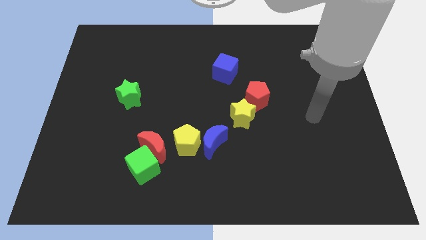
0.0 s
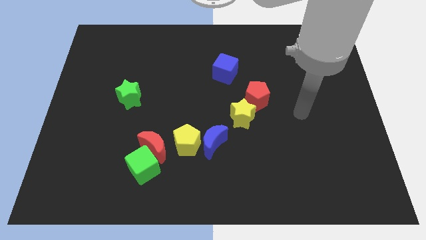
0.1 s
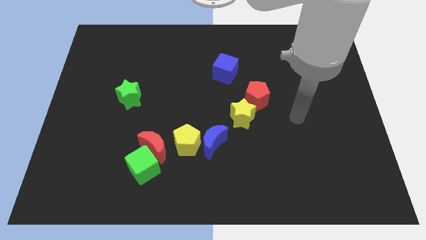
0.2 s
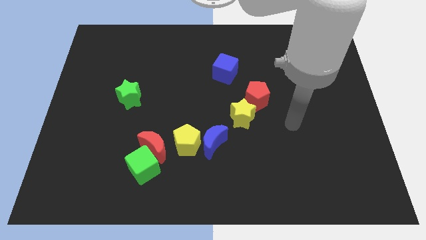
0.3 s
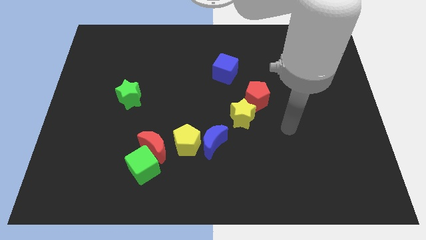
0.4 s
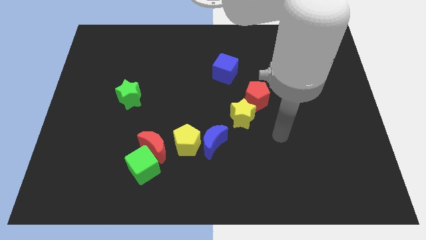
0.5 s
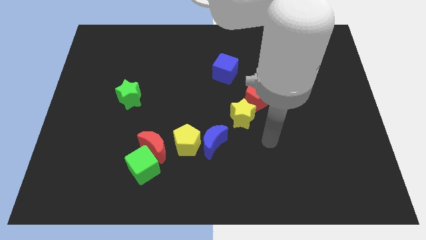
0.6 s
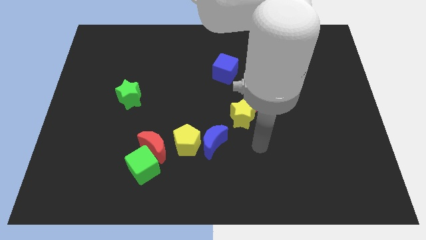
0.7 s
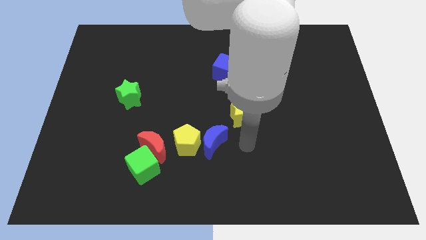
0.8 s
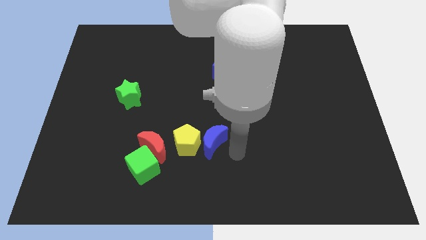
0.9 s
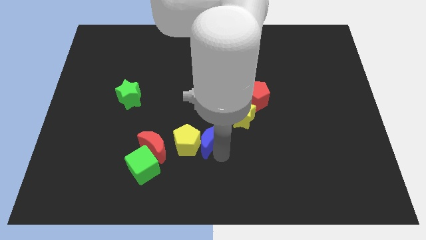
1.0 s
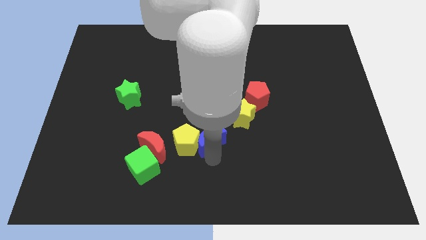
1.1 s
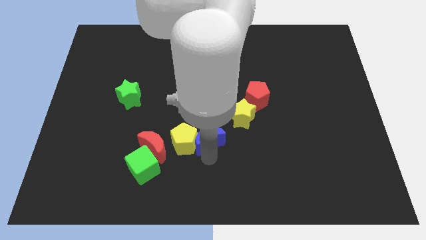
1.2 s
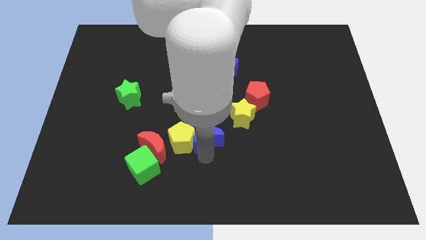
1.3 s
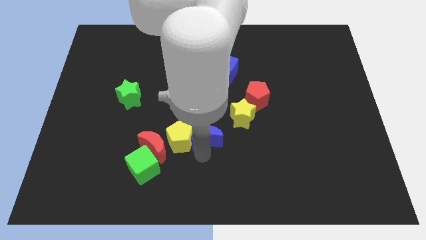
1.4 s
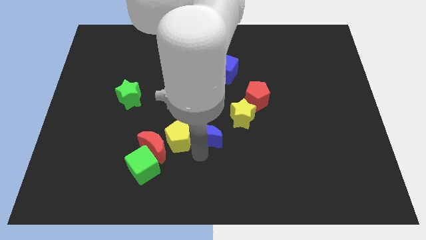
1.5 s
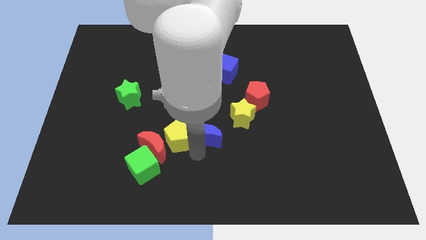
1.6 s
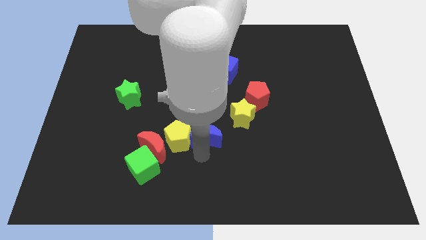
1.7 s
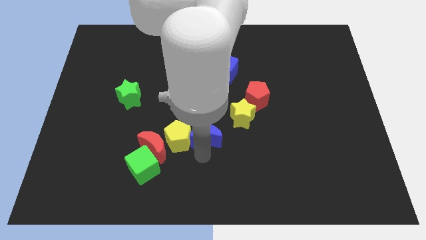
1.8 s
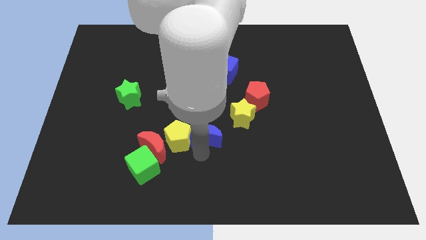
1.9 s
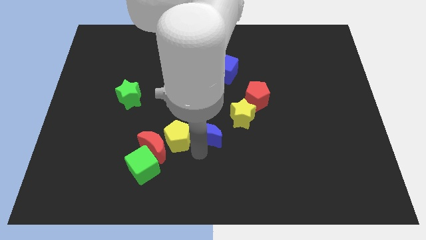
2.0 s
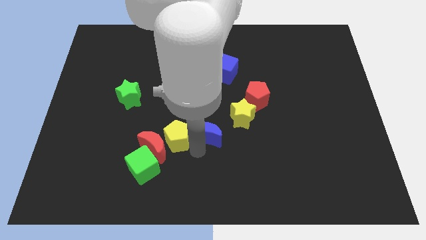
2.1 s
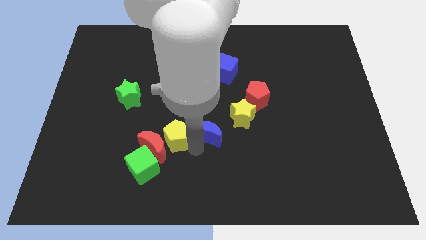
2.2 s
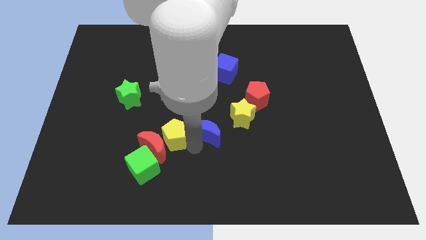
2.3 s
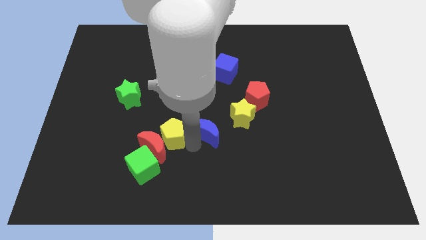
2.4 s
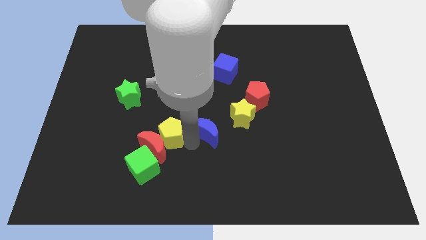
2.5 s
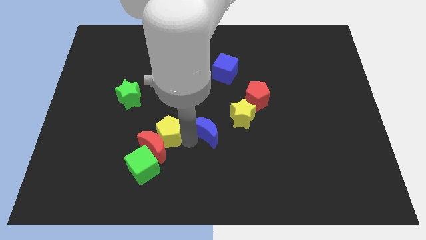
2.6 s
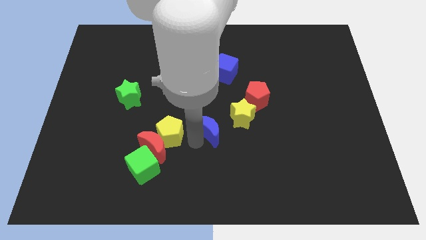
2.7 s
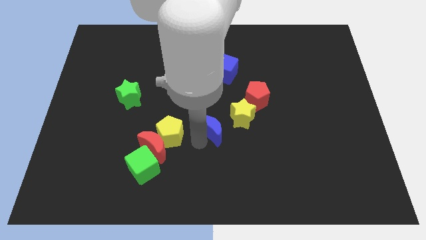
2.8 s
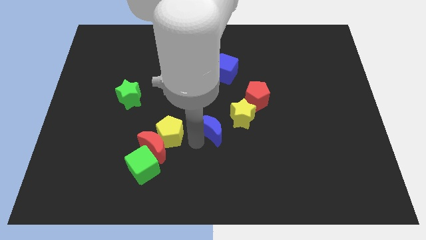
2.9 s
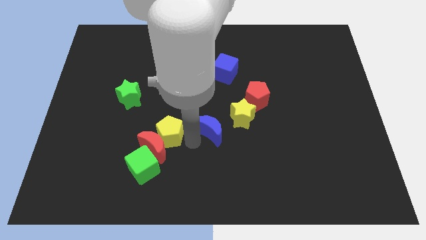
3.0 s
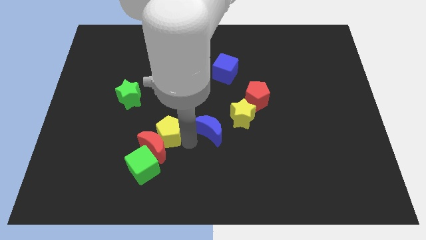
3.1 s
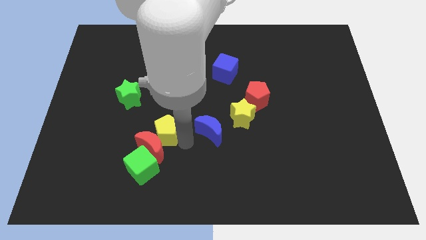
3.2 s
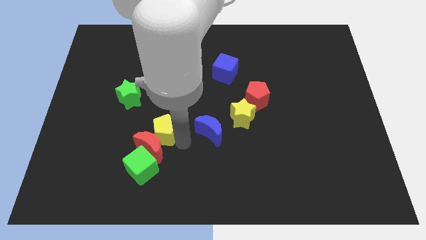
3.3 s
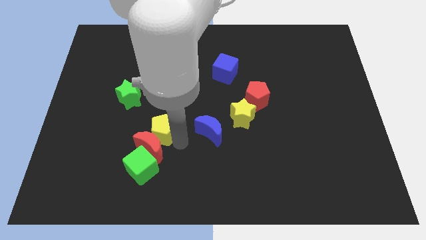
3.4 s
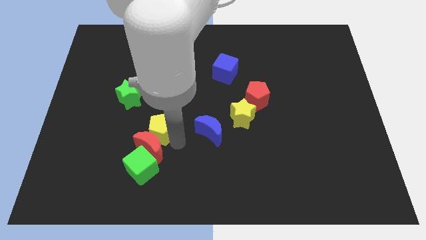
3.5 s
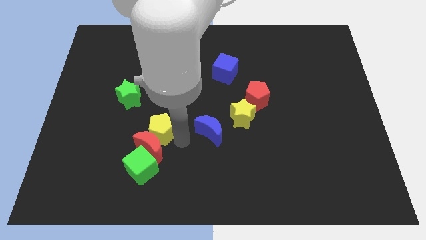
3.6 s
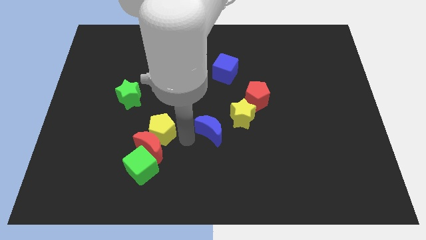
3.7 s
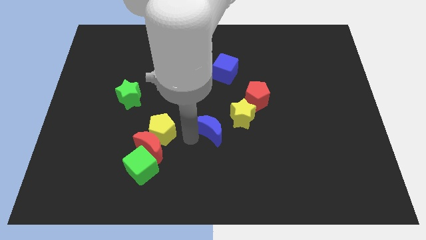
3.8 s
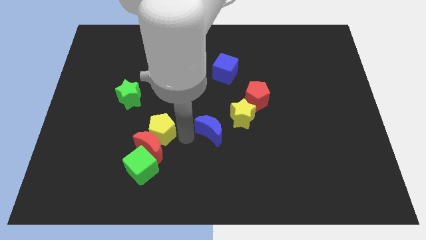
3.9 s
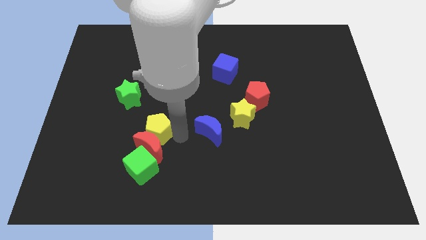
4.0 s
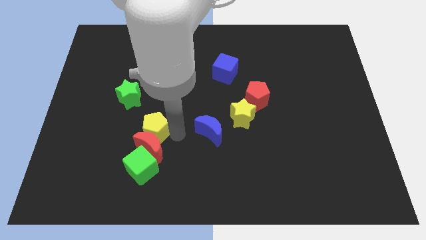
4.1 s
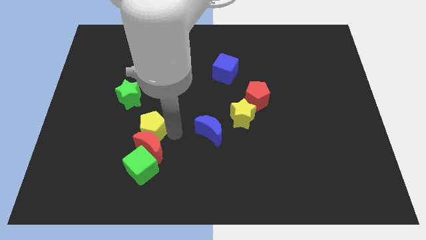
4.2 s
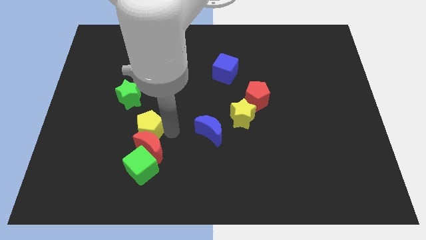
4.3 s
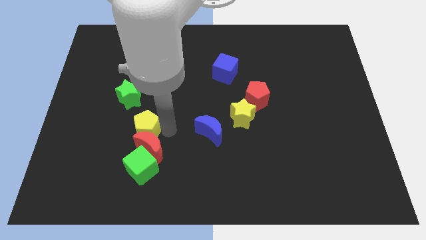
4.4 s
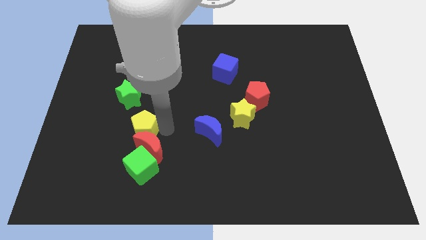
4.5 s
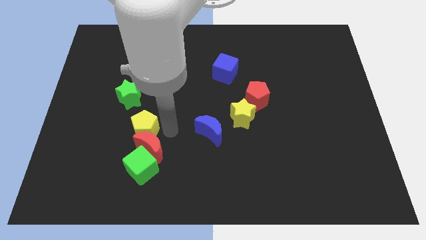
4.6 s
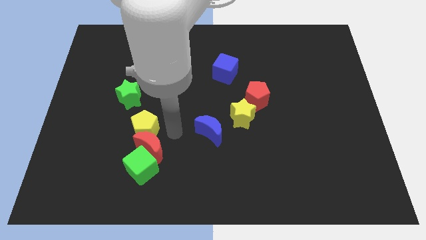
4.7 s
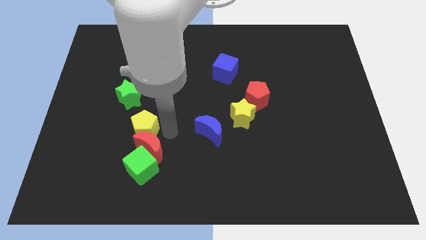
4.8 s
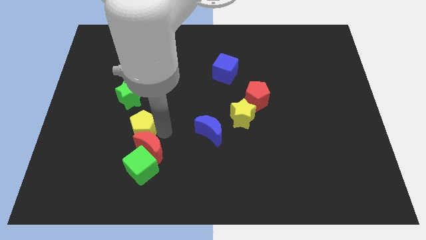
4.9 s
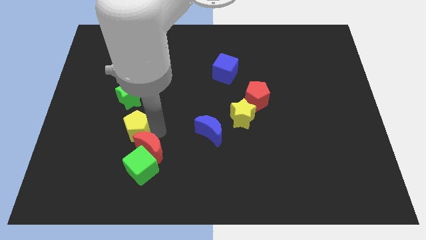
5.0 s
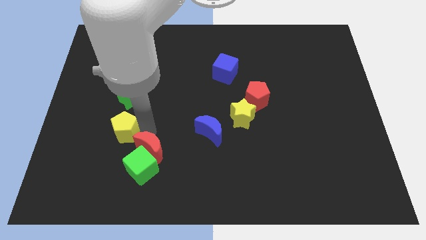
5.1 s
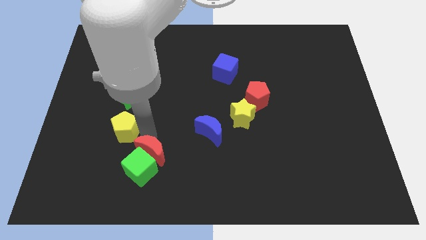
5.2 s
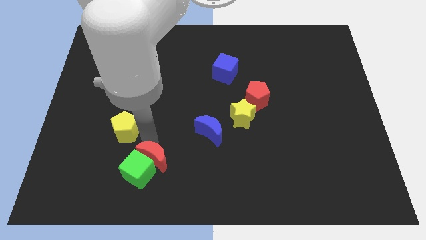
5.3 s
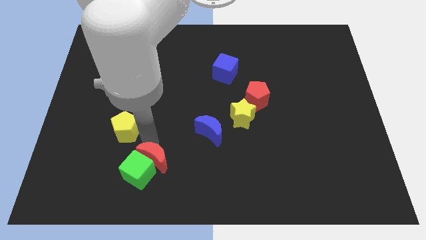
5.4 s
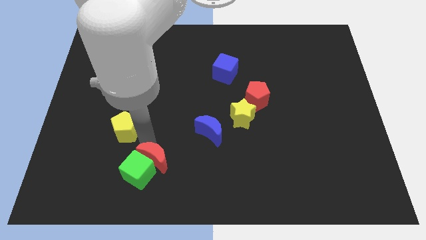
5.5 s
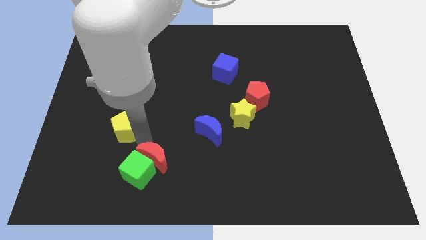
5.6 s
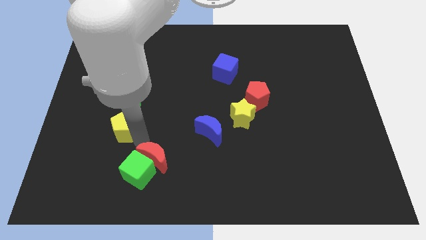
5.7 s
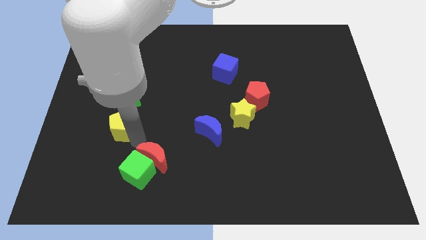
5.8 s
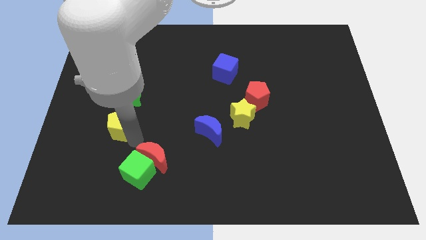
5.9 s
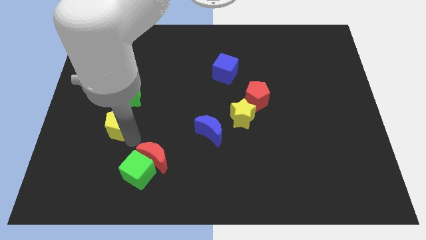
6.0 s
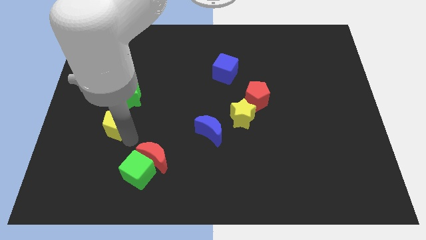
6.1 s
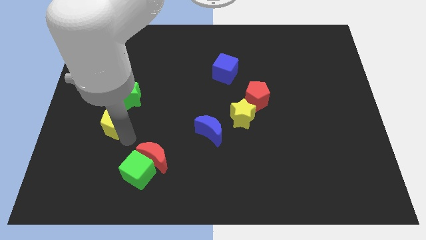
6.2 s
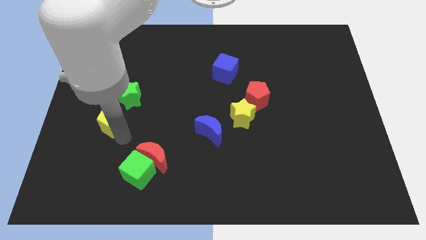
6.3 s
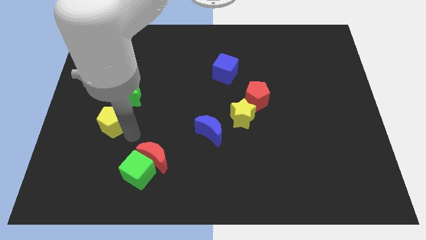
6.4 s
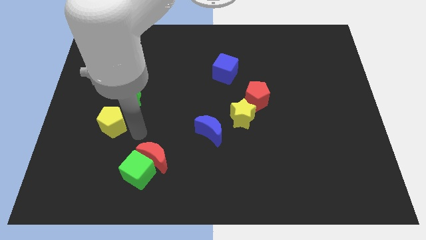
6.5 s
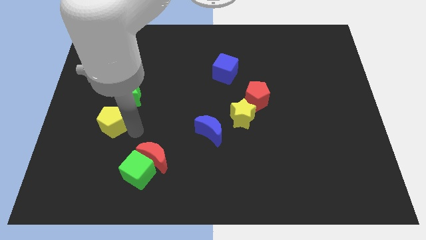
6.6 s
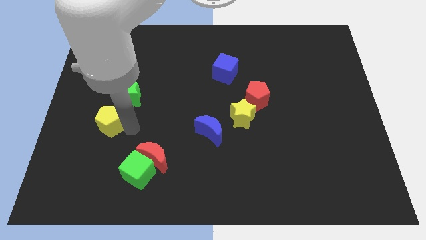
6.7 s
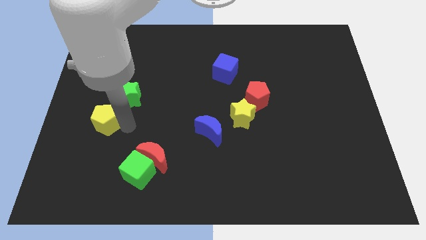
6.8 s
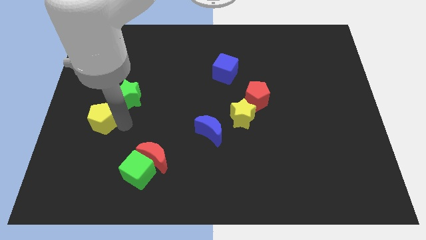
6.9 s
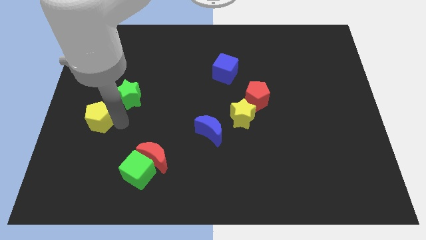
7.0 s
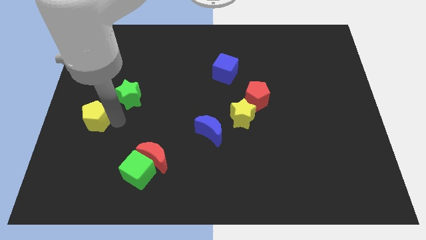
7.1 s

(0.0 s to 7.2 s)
put the yellow pentagon to the center left

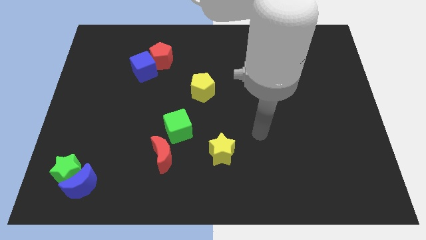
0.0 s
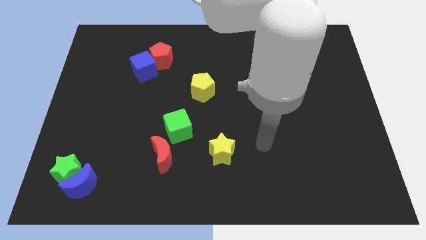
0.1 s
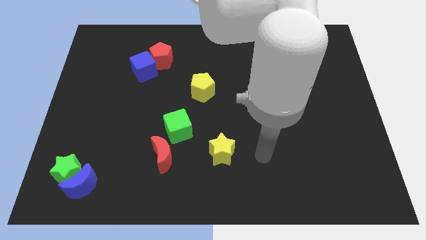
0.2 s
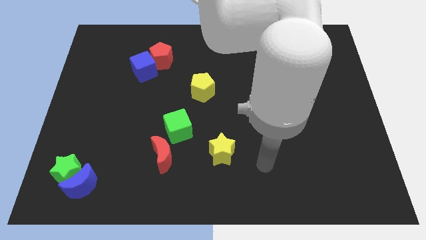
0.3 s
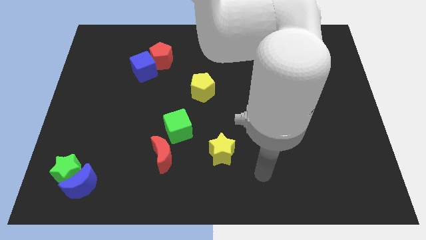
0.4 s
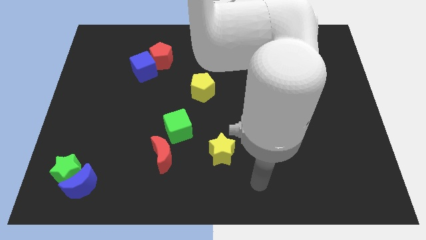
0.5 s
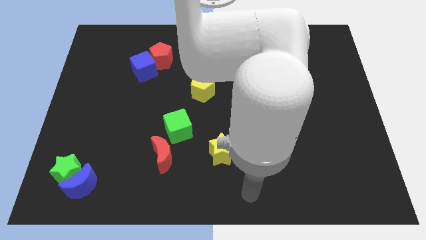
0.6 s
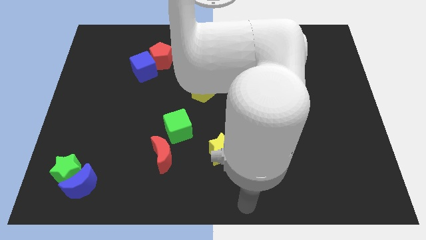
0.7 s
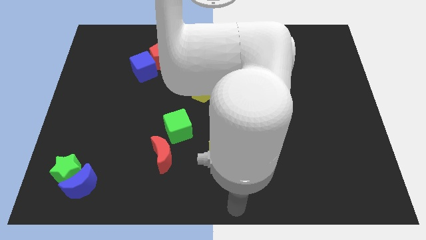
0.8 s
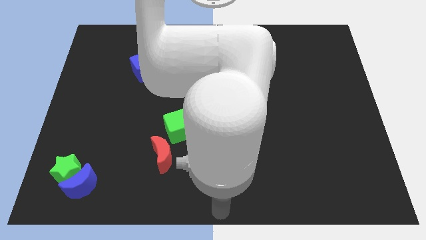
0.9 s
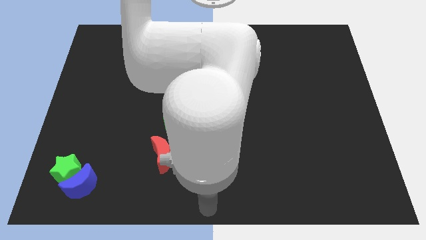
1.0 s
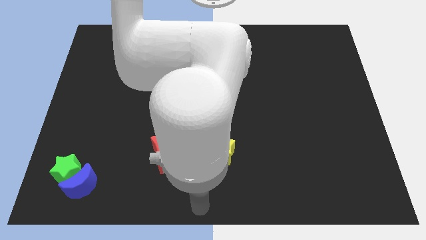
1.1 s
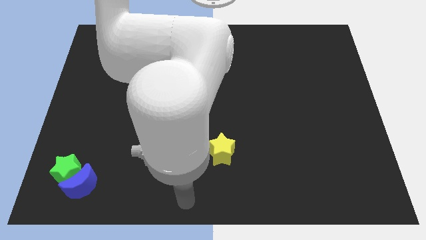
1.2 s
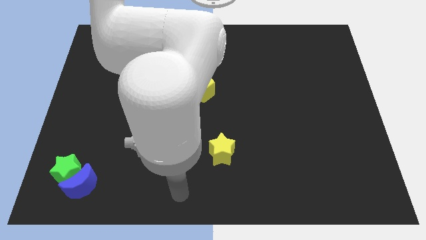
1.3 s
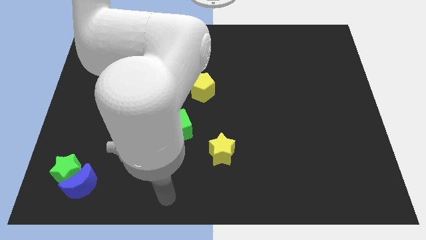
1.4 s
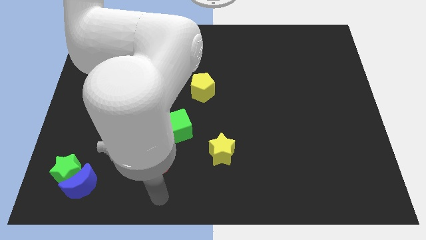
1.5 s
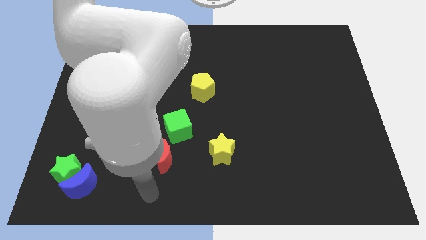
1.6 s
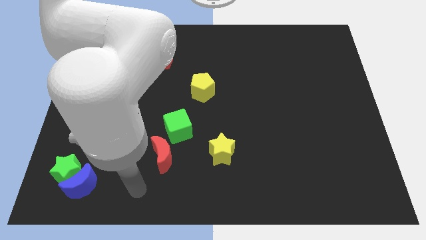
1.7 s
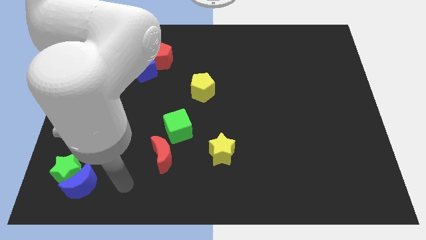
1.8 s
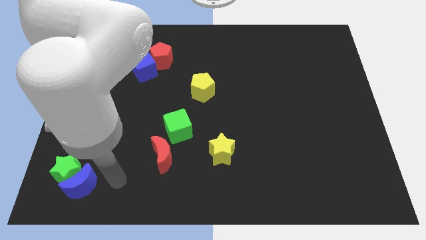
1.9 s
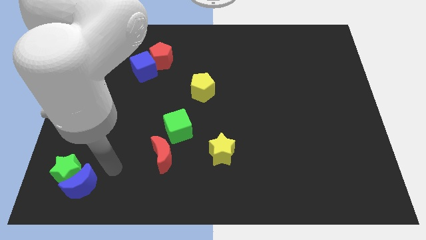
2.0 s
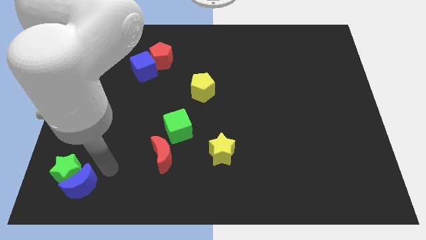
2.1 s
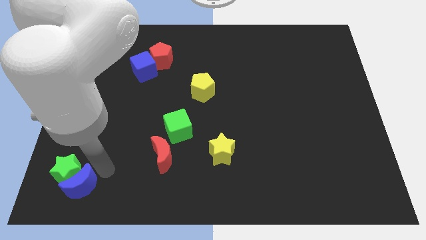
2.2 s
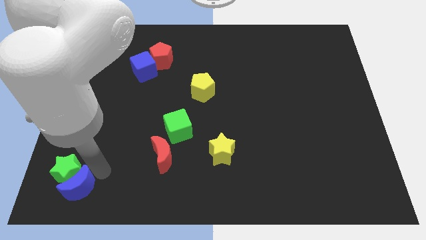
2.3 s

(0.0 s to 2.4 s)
push the blue moon to the bottom left
